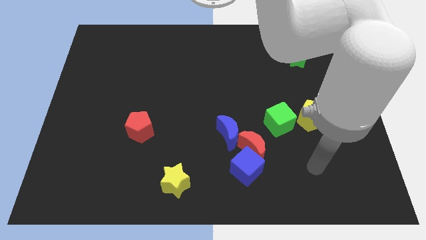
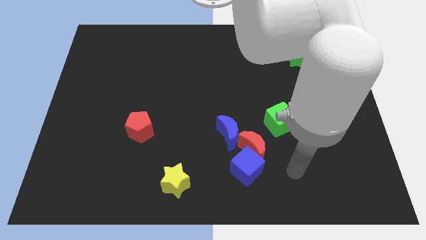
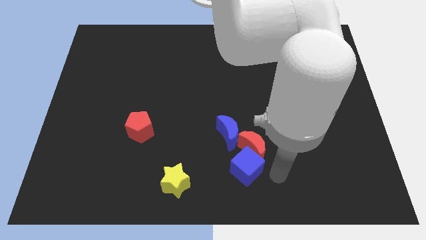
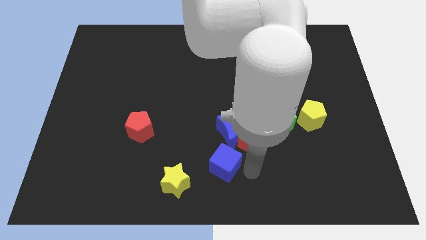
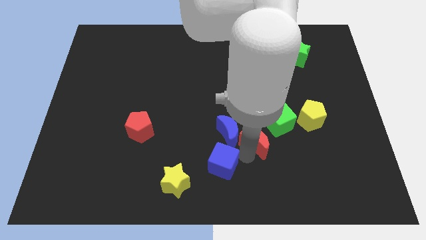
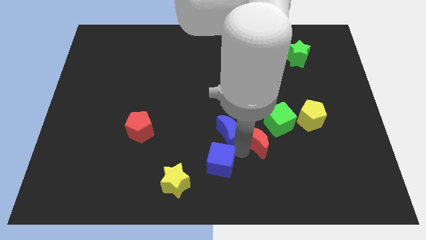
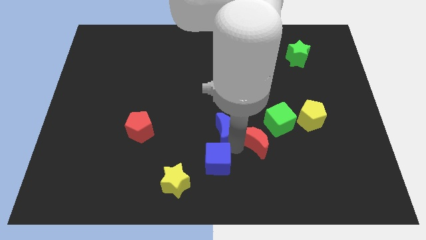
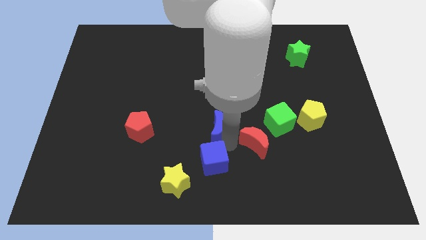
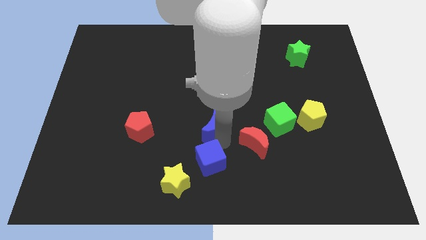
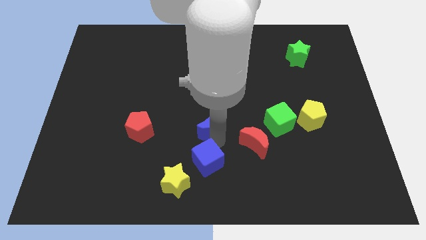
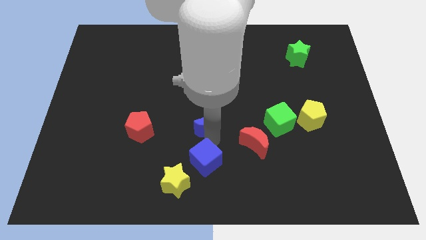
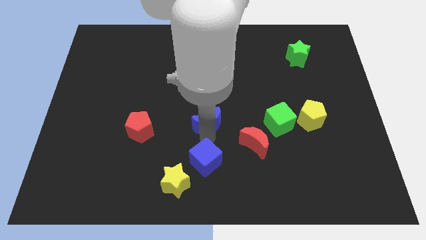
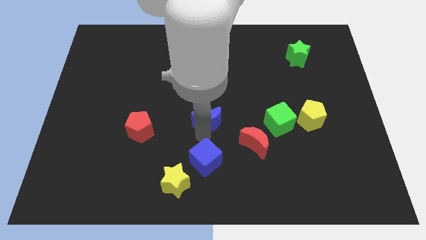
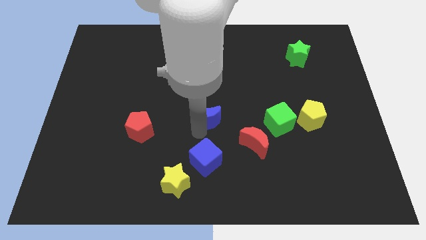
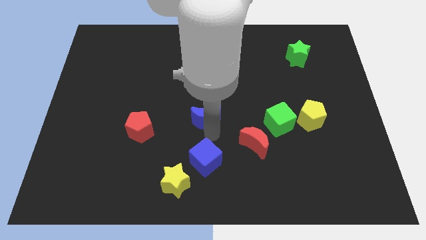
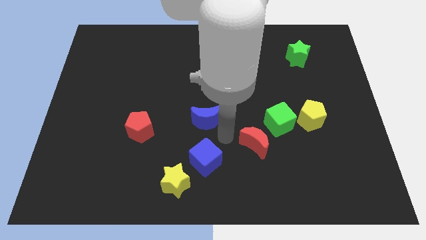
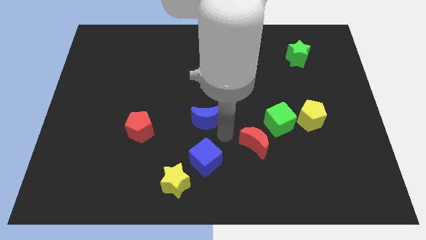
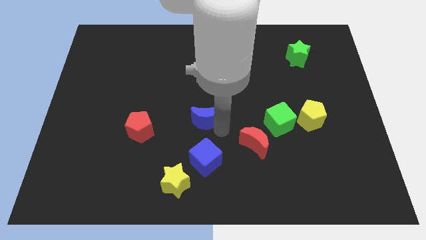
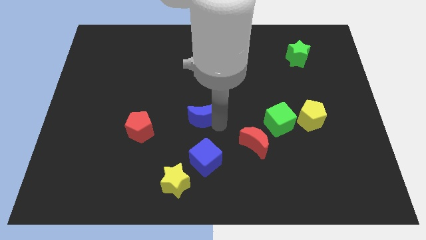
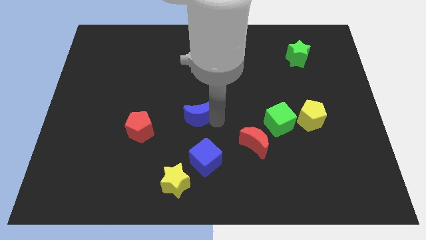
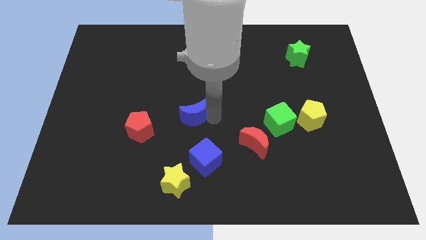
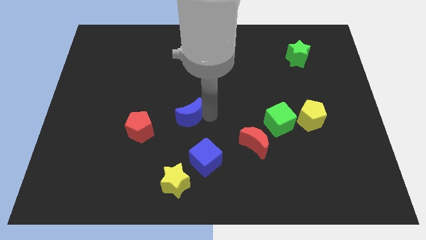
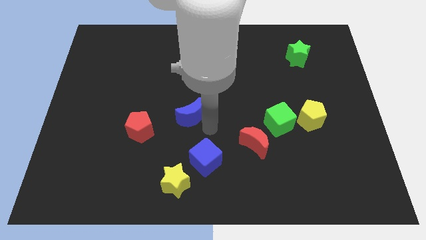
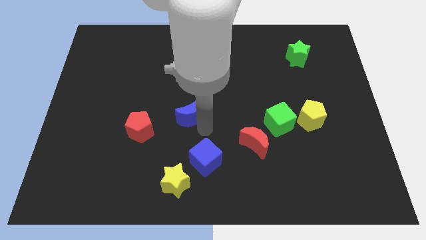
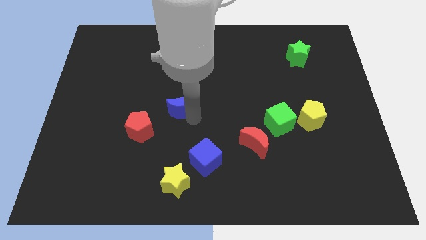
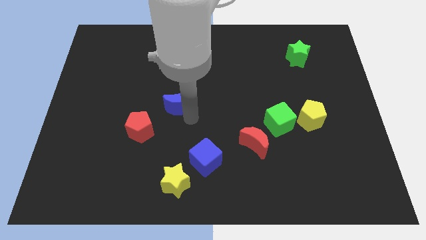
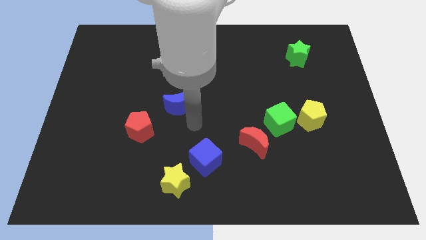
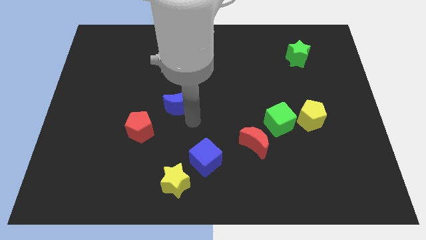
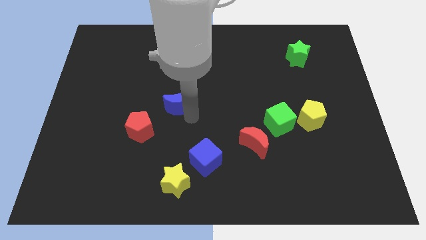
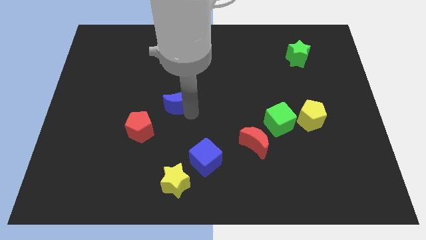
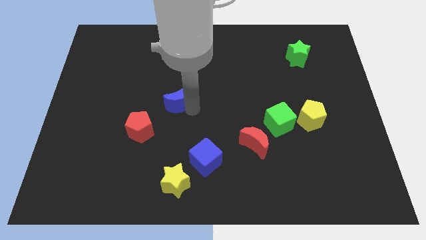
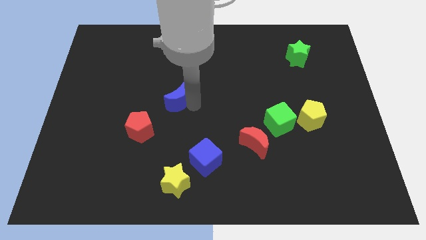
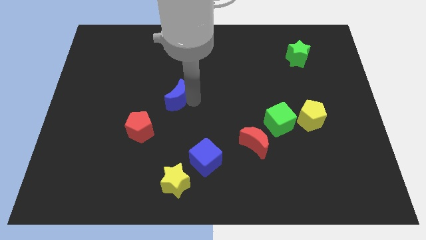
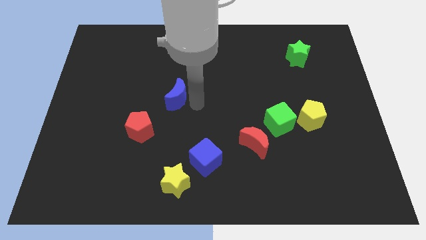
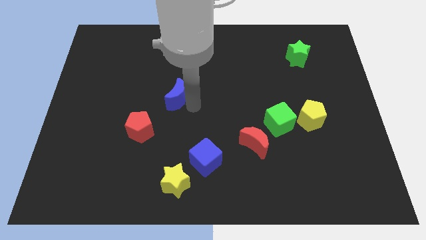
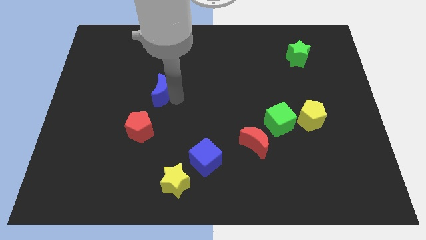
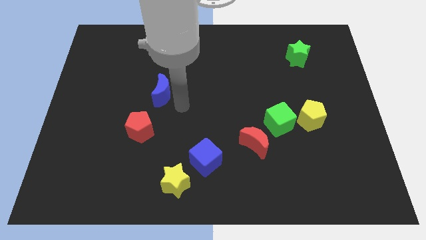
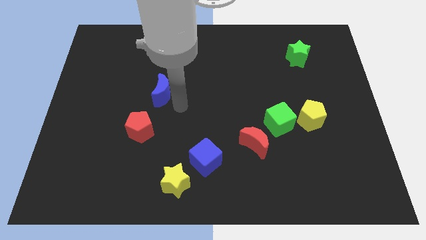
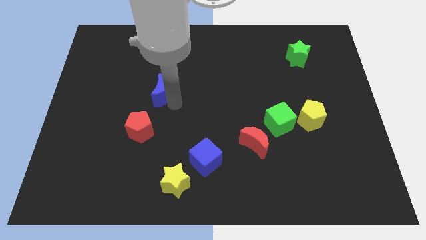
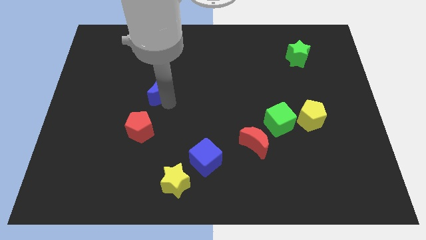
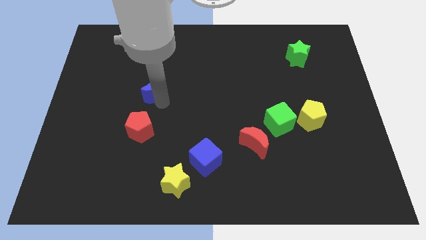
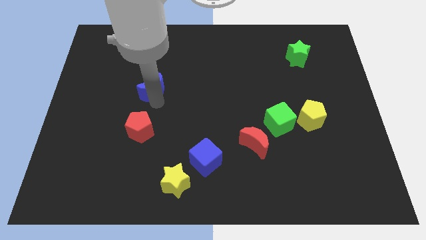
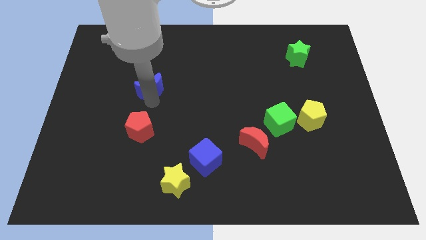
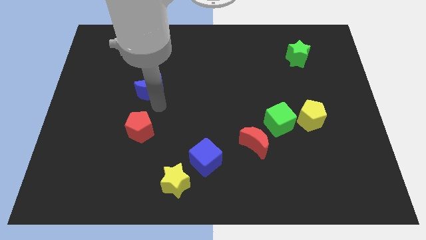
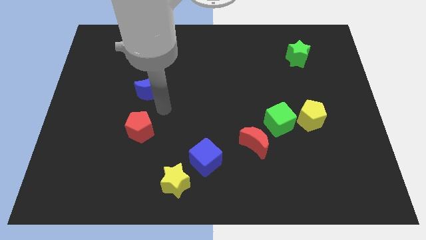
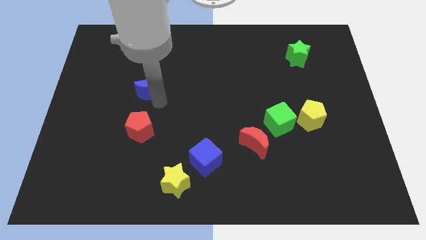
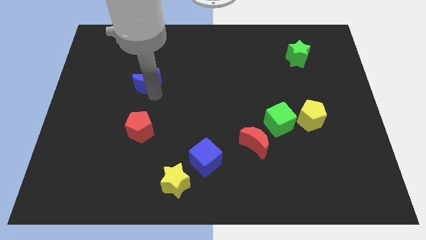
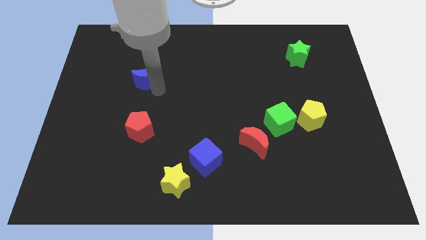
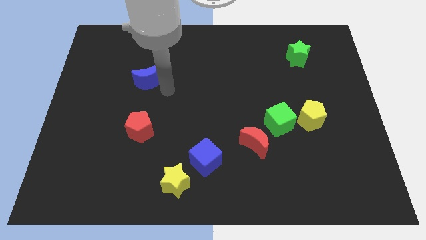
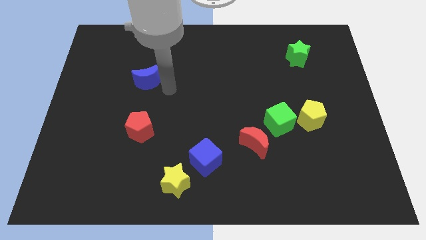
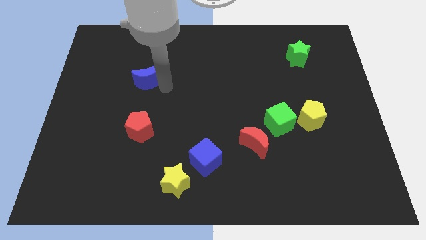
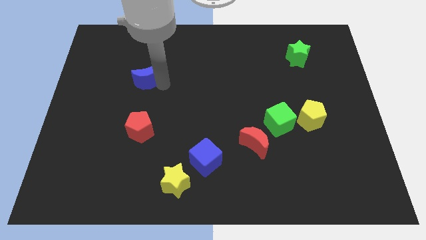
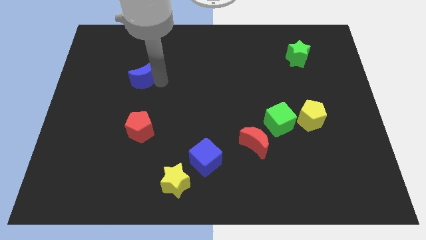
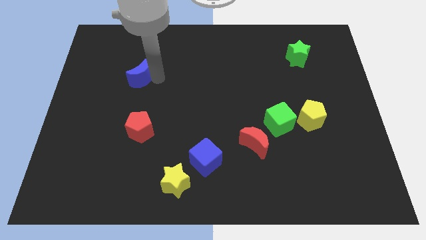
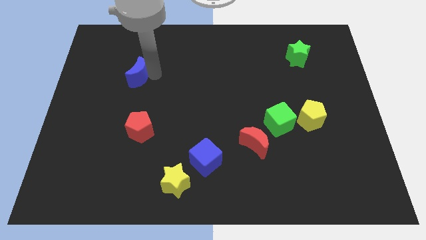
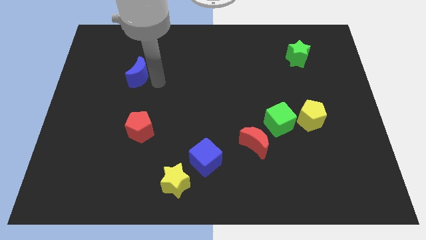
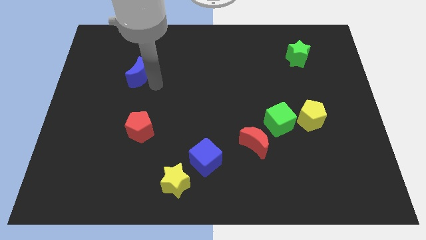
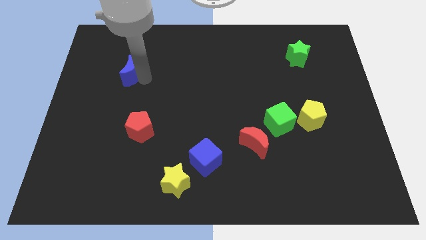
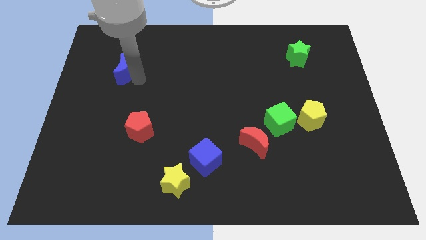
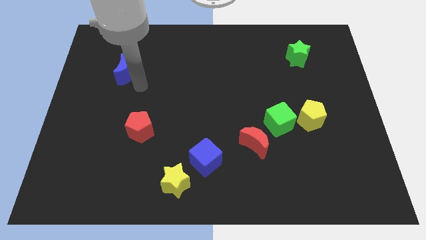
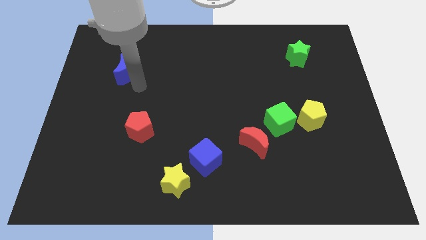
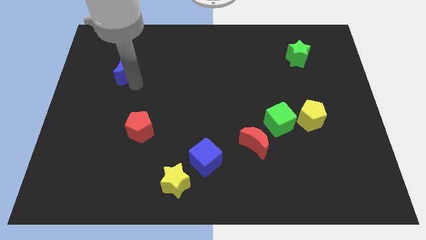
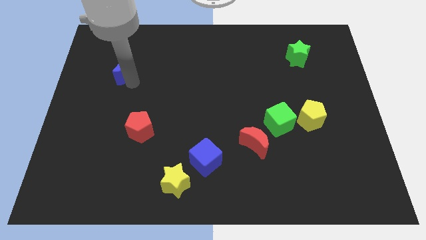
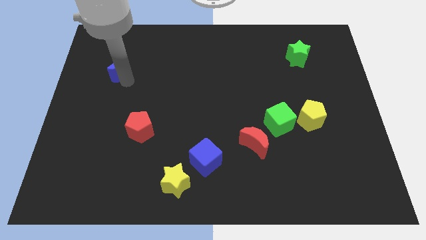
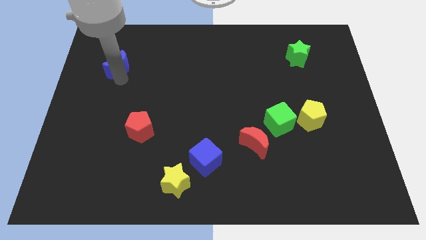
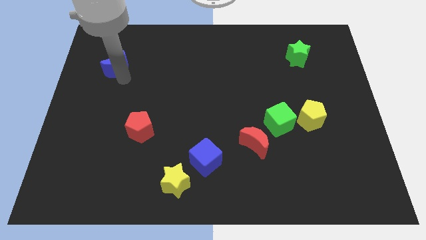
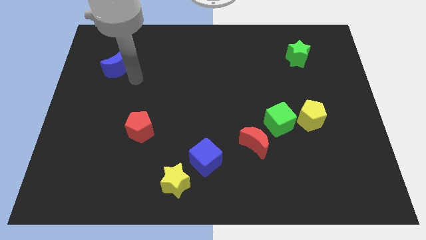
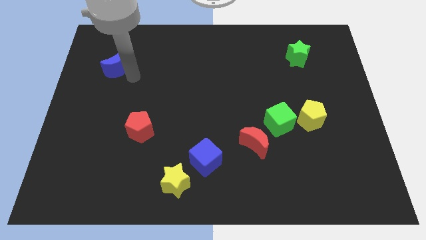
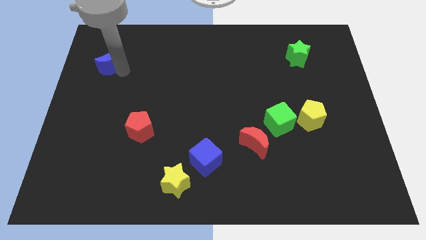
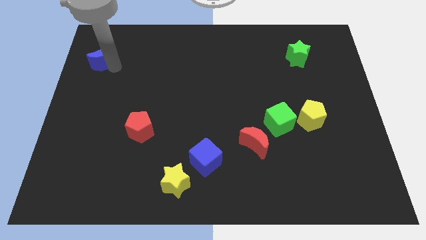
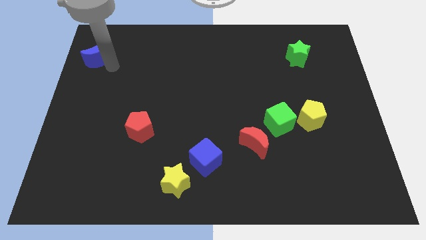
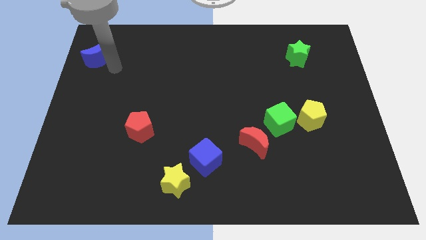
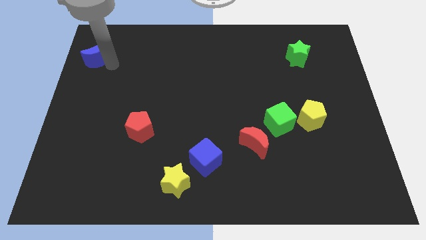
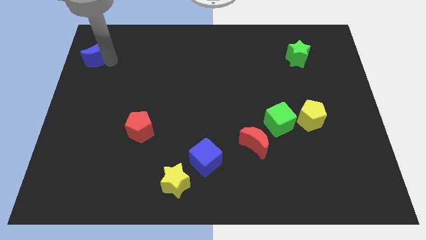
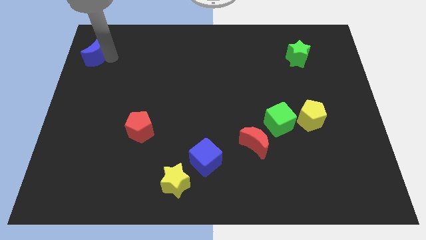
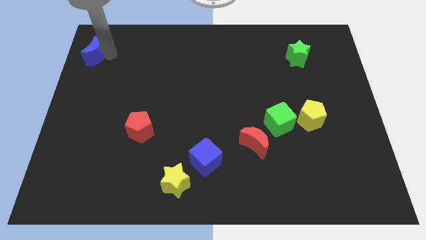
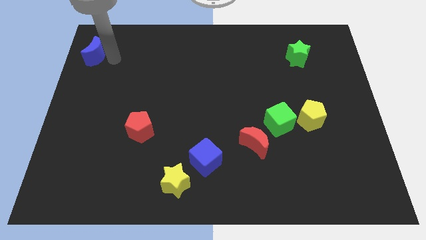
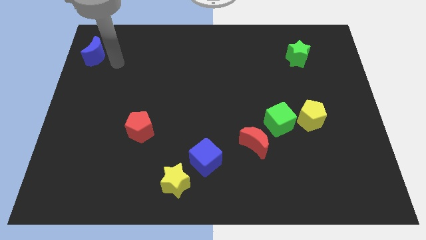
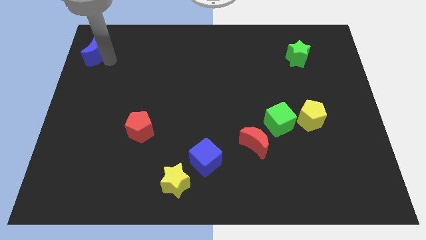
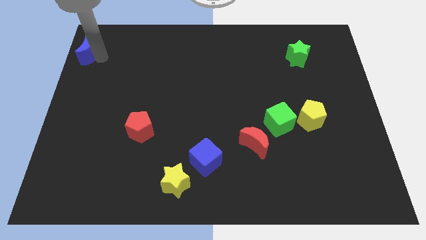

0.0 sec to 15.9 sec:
slide the blue moon to the top left
